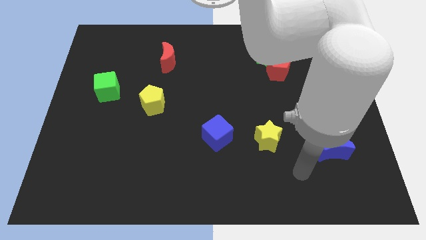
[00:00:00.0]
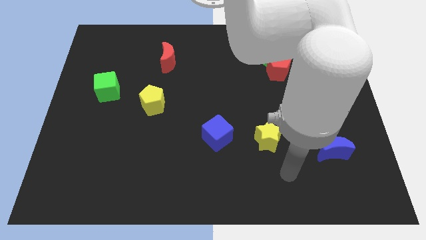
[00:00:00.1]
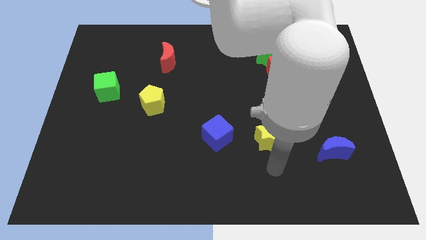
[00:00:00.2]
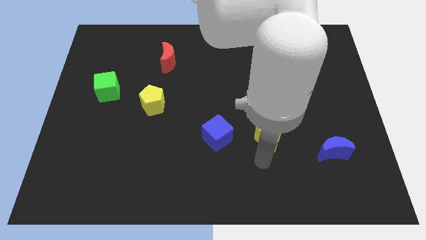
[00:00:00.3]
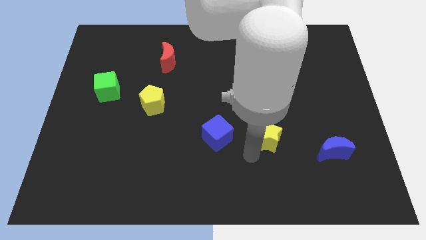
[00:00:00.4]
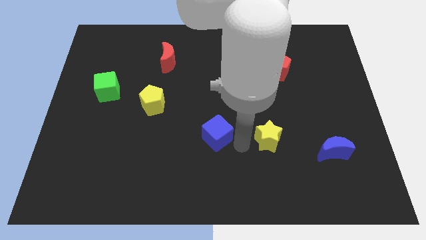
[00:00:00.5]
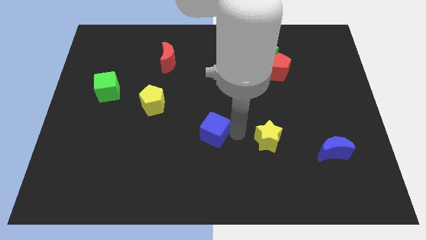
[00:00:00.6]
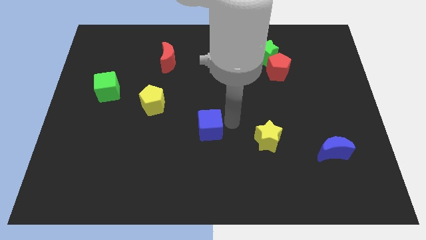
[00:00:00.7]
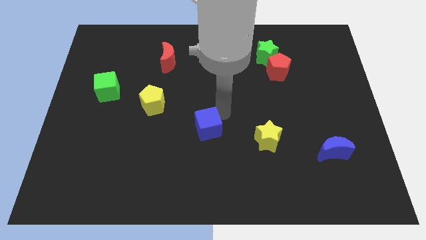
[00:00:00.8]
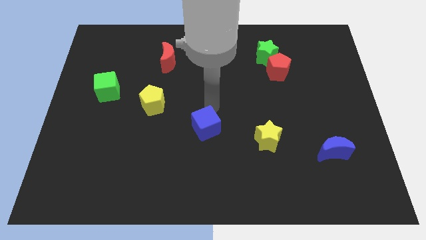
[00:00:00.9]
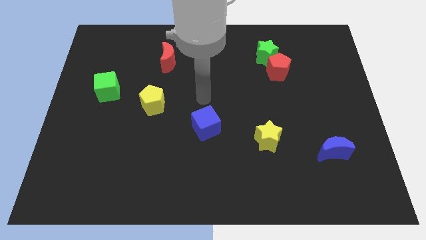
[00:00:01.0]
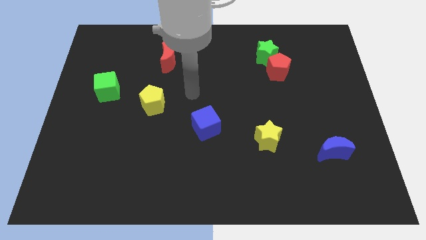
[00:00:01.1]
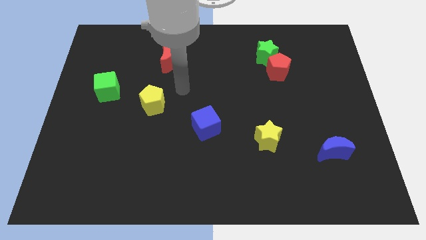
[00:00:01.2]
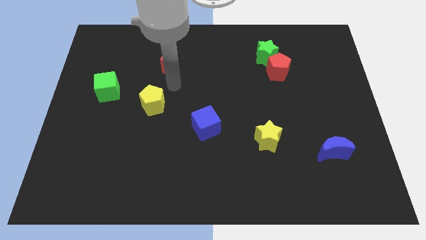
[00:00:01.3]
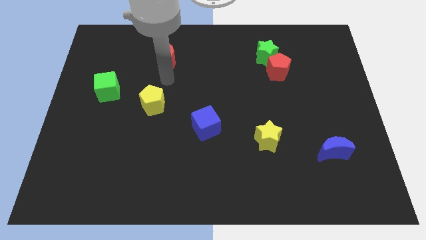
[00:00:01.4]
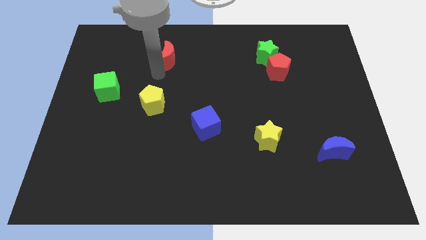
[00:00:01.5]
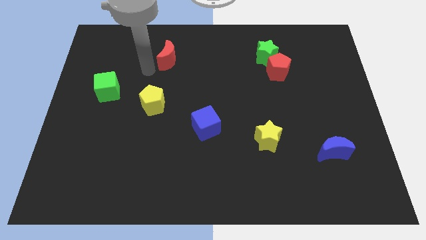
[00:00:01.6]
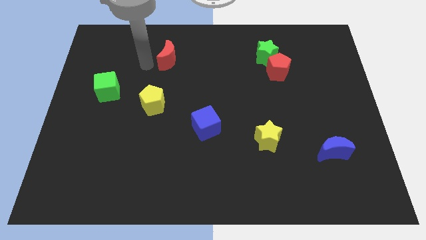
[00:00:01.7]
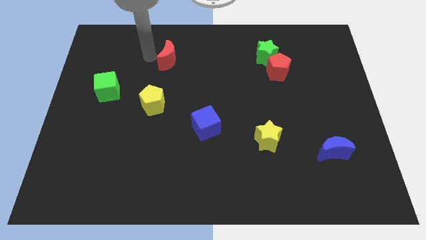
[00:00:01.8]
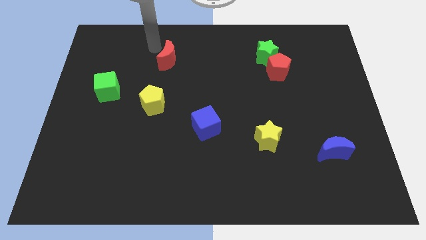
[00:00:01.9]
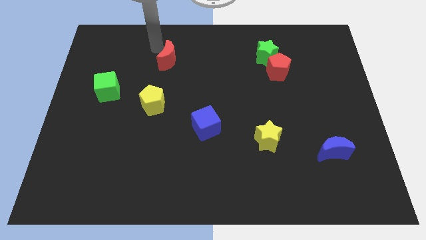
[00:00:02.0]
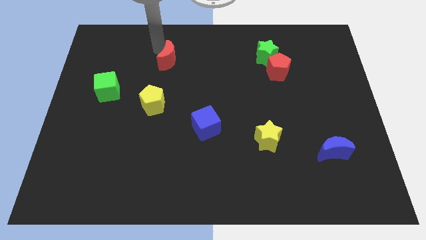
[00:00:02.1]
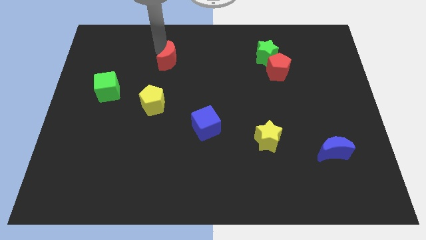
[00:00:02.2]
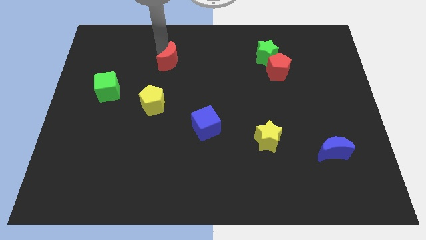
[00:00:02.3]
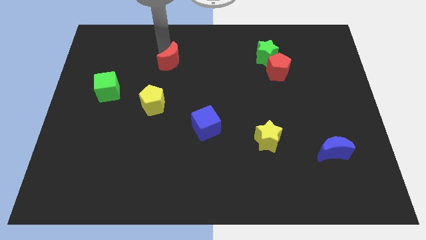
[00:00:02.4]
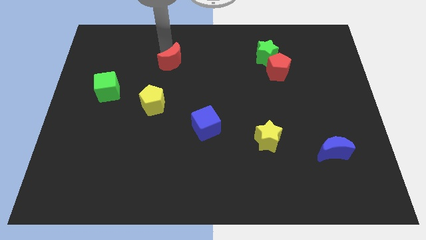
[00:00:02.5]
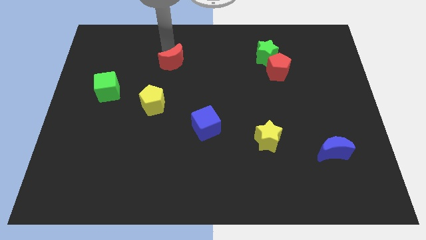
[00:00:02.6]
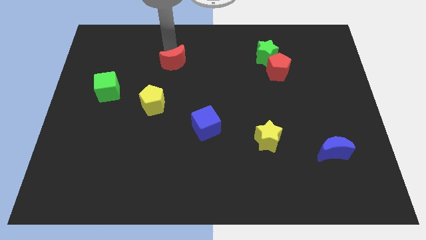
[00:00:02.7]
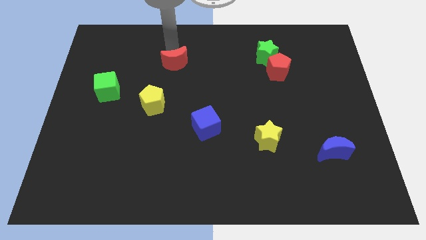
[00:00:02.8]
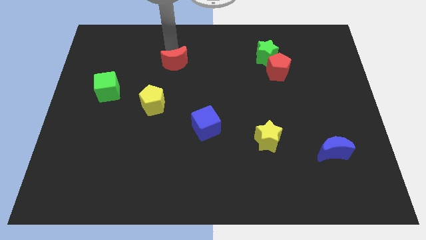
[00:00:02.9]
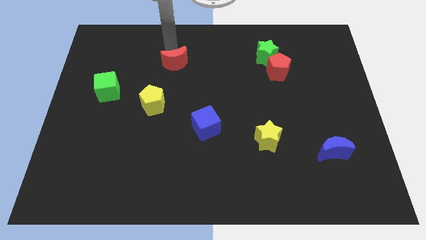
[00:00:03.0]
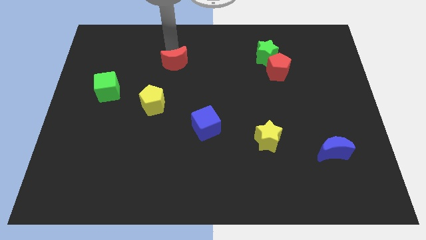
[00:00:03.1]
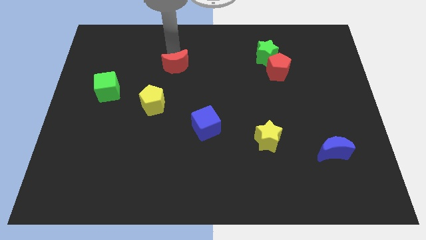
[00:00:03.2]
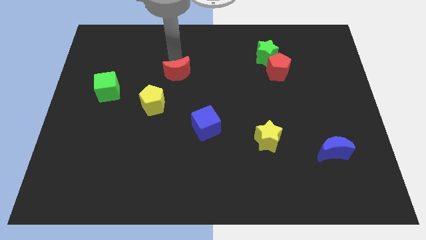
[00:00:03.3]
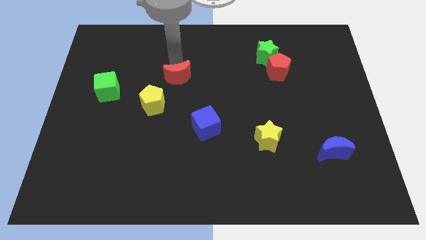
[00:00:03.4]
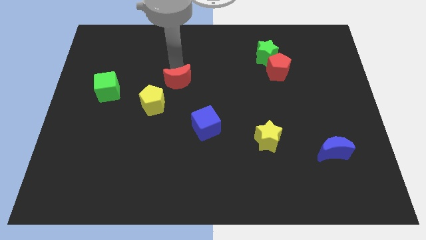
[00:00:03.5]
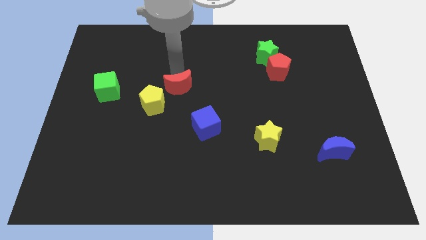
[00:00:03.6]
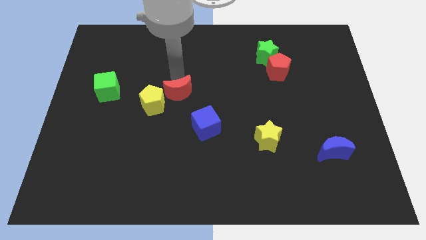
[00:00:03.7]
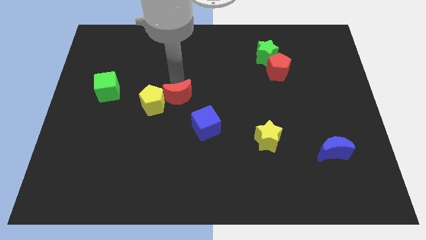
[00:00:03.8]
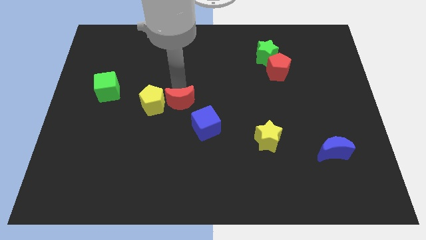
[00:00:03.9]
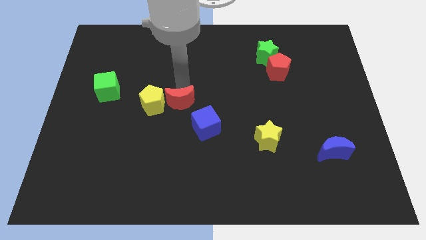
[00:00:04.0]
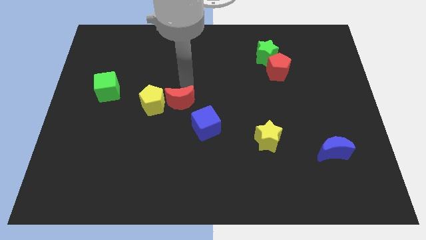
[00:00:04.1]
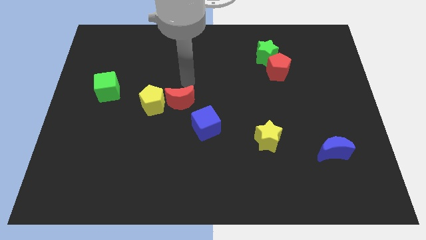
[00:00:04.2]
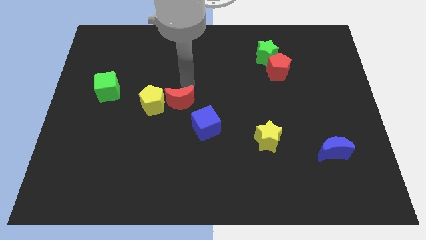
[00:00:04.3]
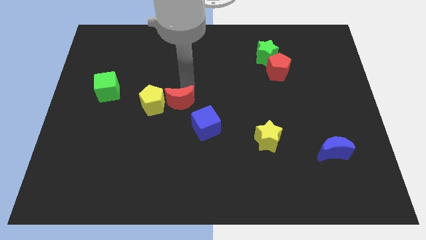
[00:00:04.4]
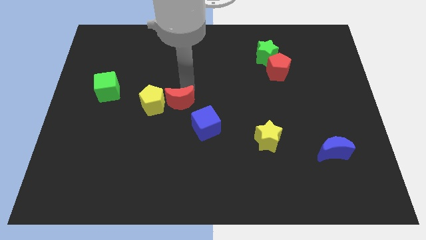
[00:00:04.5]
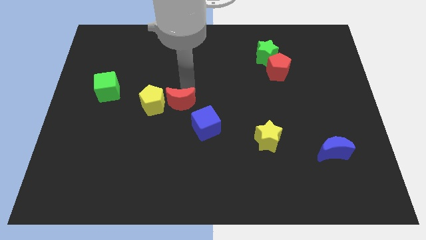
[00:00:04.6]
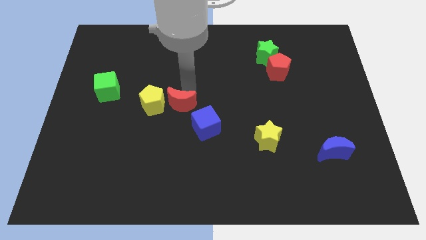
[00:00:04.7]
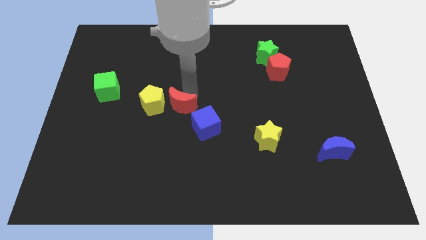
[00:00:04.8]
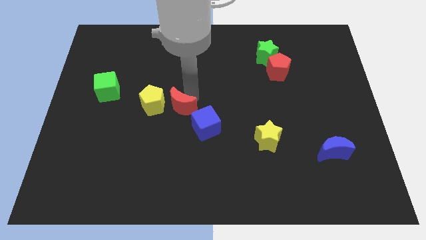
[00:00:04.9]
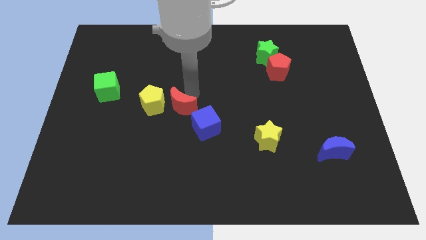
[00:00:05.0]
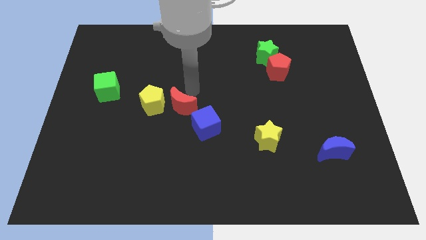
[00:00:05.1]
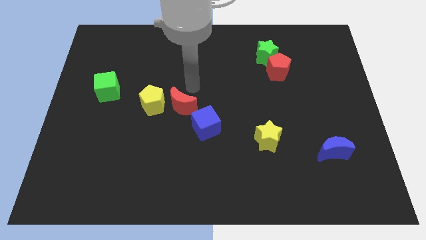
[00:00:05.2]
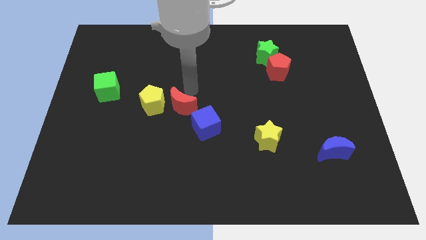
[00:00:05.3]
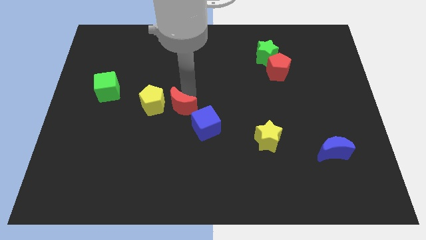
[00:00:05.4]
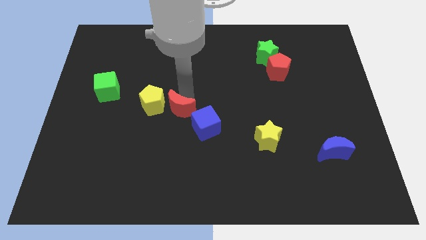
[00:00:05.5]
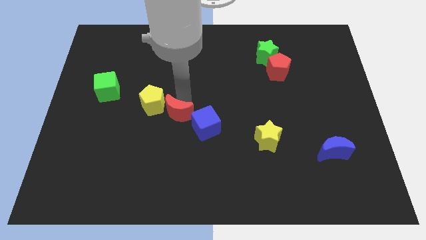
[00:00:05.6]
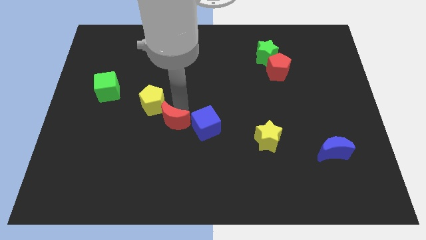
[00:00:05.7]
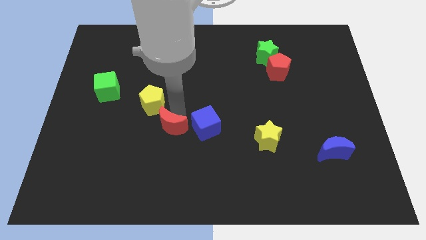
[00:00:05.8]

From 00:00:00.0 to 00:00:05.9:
move the red moon down

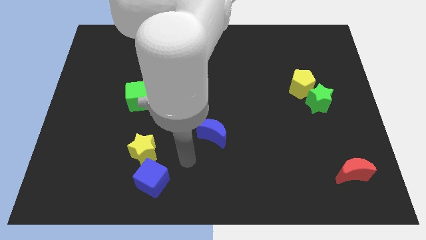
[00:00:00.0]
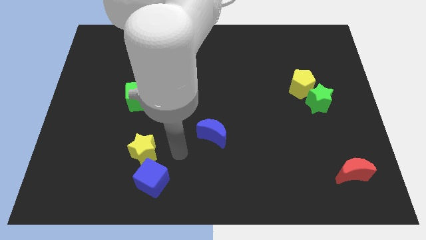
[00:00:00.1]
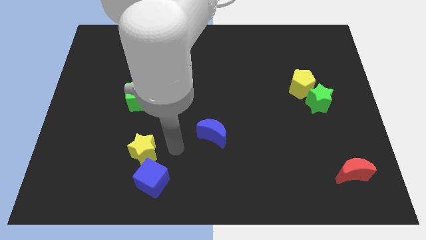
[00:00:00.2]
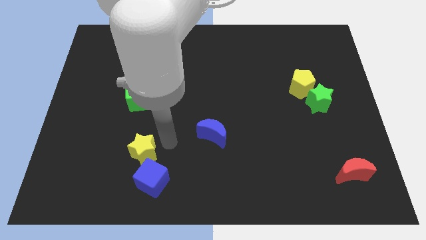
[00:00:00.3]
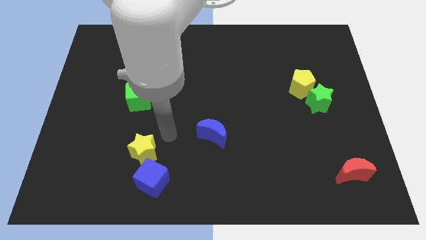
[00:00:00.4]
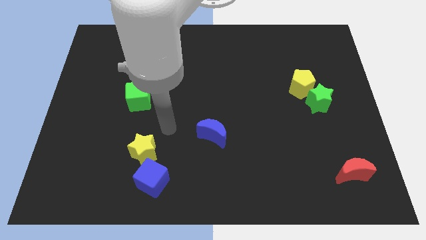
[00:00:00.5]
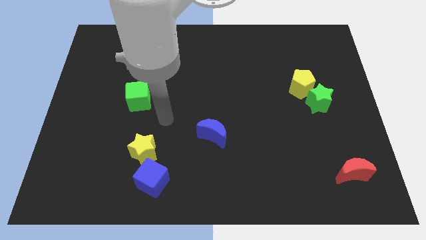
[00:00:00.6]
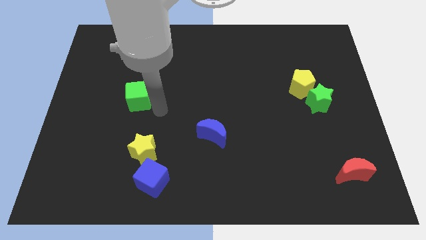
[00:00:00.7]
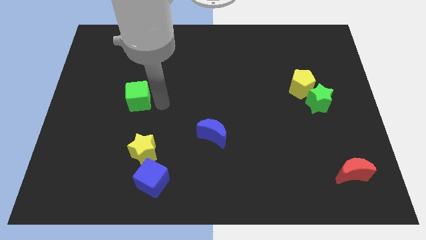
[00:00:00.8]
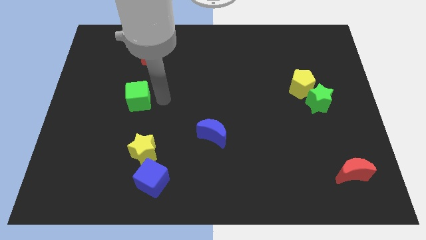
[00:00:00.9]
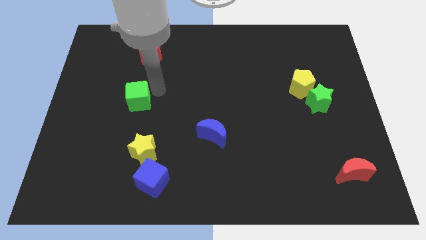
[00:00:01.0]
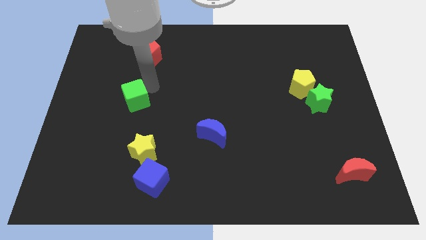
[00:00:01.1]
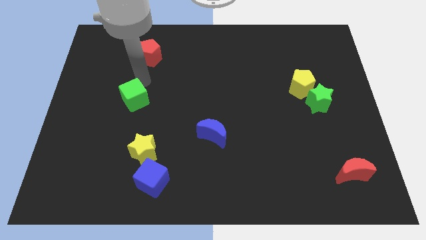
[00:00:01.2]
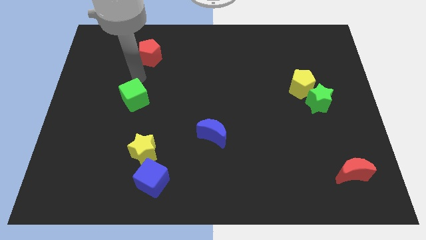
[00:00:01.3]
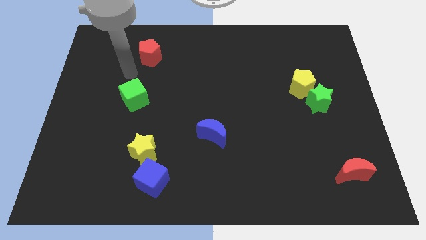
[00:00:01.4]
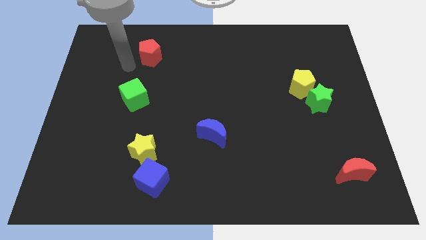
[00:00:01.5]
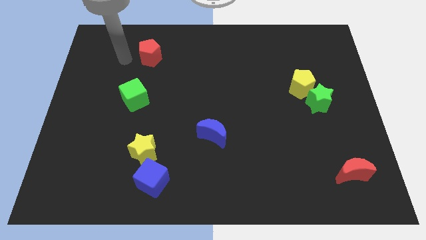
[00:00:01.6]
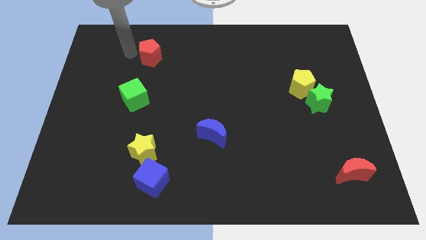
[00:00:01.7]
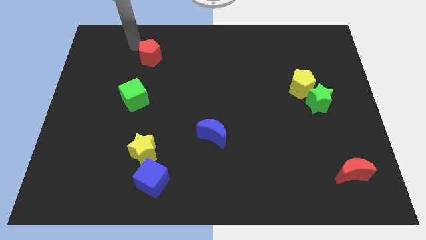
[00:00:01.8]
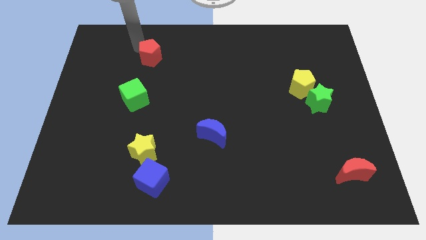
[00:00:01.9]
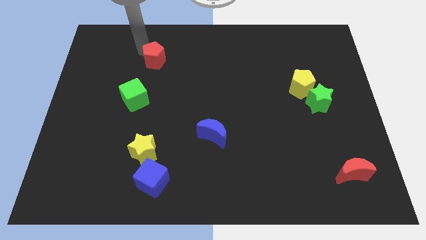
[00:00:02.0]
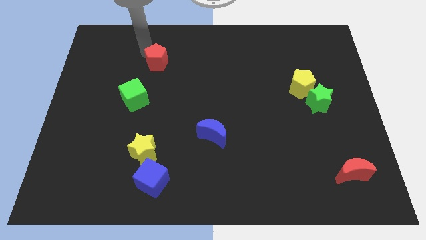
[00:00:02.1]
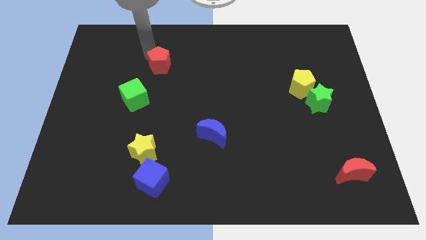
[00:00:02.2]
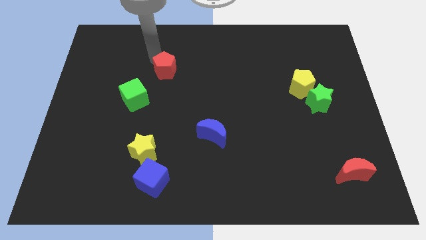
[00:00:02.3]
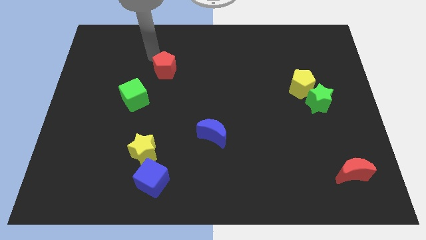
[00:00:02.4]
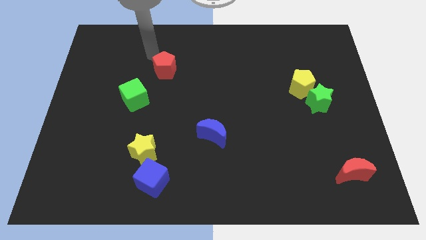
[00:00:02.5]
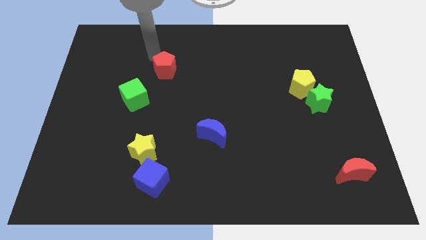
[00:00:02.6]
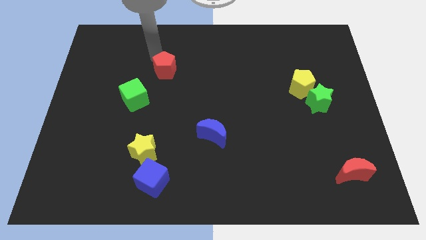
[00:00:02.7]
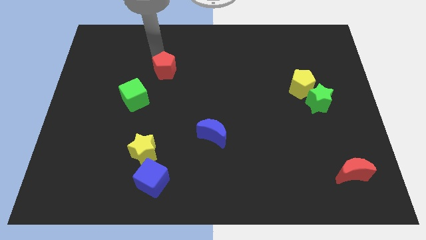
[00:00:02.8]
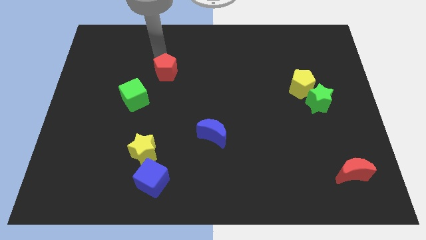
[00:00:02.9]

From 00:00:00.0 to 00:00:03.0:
slide the red pentagon slightly down and then to the right
